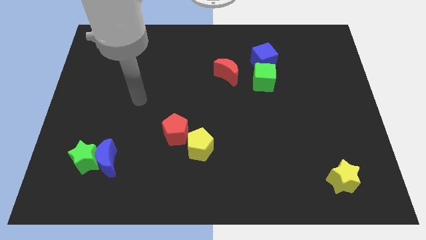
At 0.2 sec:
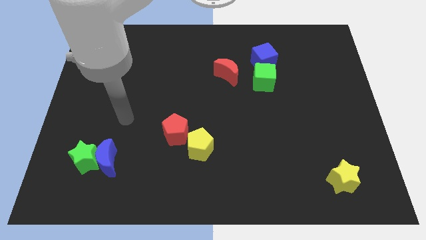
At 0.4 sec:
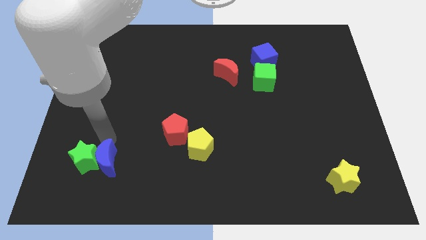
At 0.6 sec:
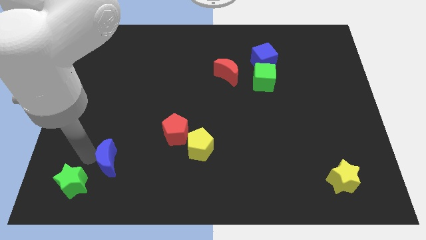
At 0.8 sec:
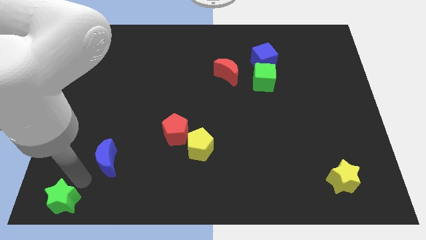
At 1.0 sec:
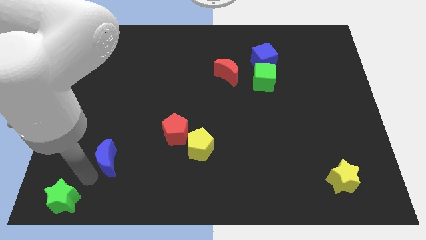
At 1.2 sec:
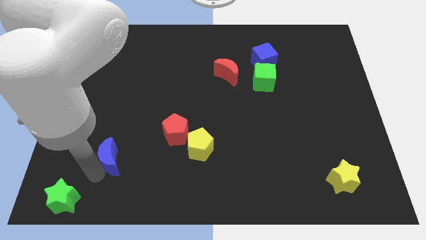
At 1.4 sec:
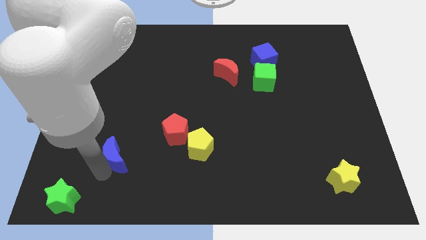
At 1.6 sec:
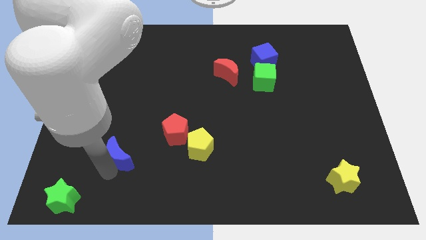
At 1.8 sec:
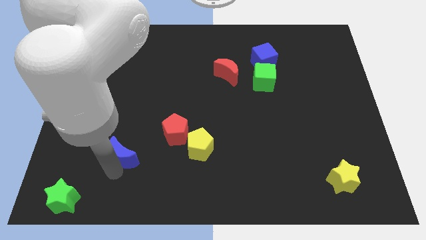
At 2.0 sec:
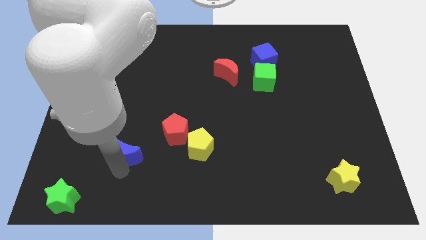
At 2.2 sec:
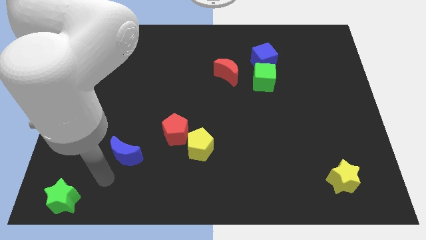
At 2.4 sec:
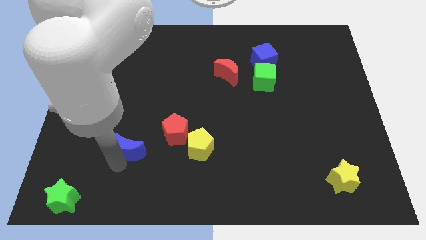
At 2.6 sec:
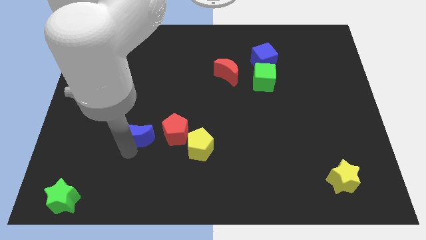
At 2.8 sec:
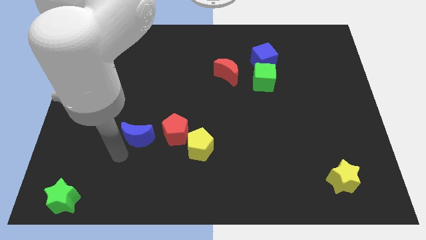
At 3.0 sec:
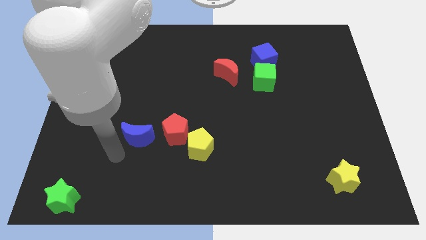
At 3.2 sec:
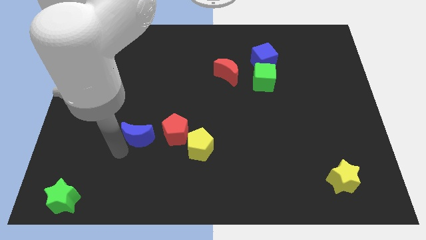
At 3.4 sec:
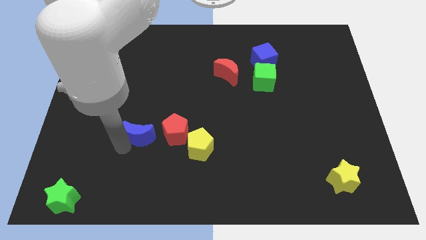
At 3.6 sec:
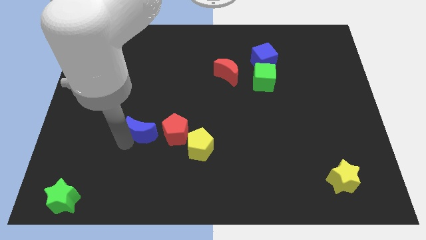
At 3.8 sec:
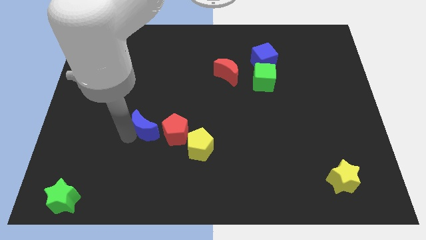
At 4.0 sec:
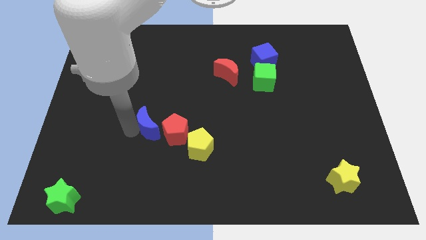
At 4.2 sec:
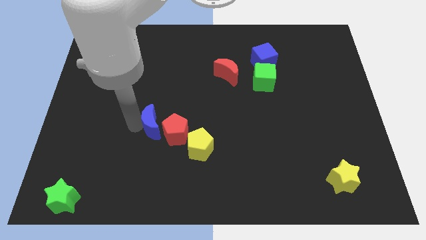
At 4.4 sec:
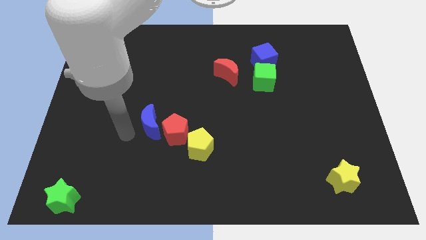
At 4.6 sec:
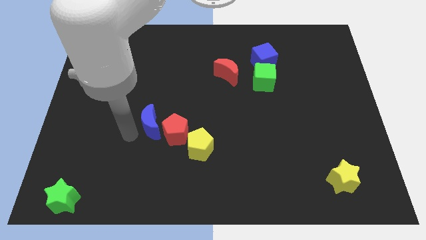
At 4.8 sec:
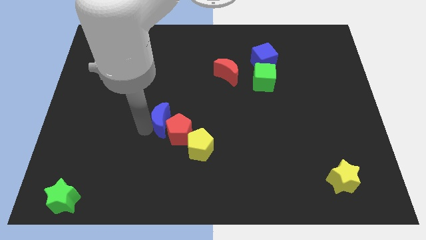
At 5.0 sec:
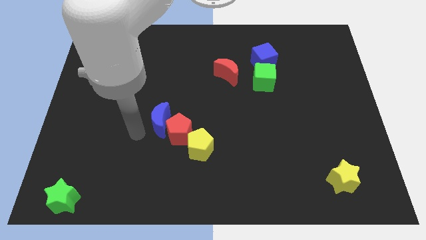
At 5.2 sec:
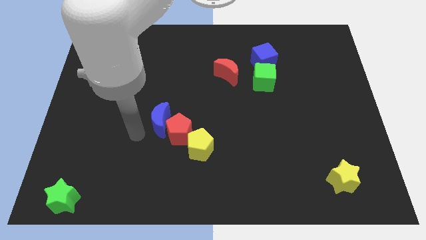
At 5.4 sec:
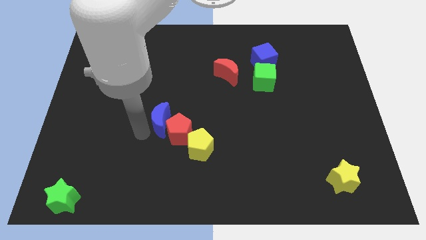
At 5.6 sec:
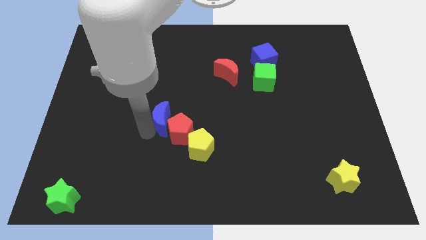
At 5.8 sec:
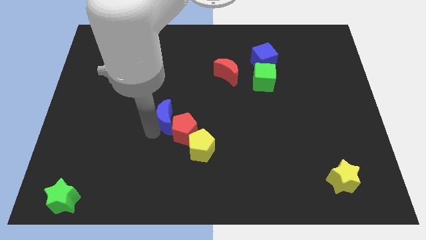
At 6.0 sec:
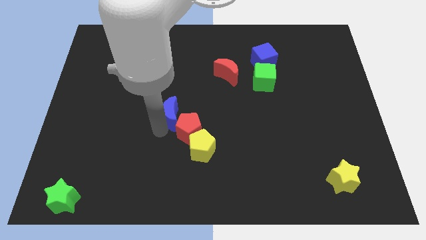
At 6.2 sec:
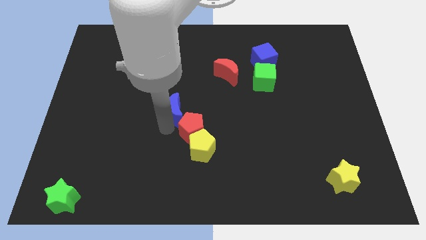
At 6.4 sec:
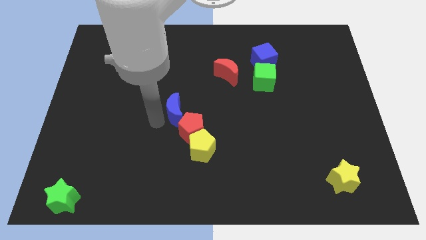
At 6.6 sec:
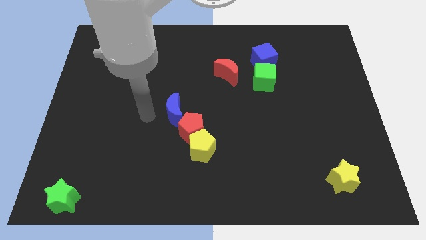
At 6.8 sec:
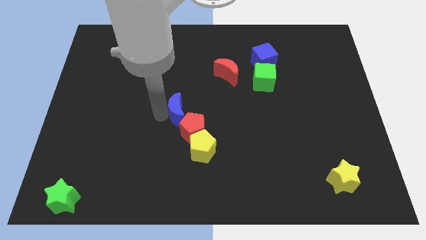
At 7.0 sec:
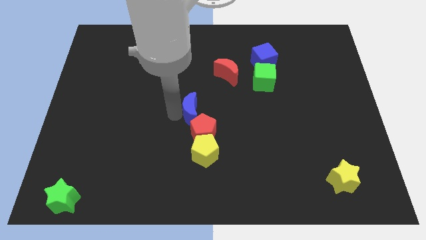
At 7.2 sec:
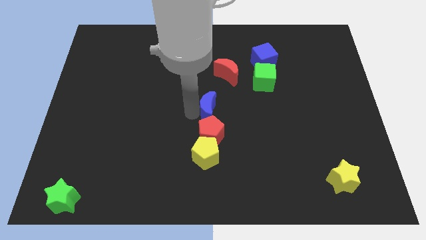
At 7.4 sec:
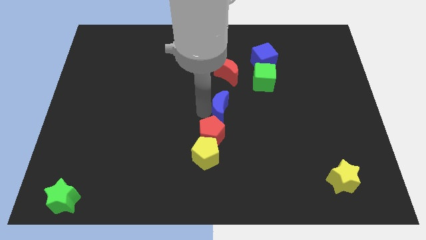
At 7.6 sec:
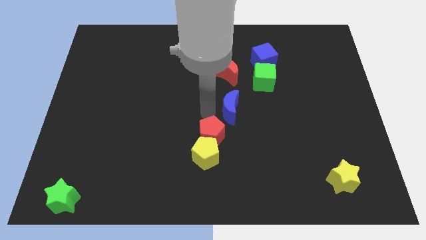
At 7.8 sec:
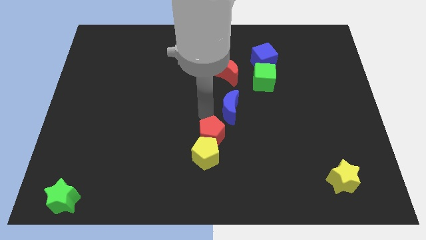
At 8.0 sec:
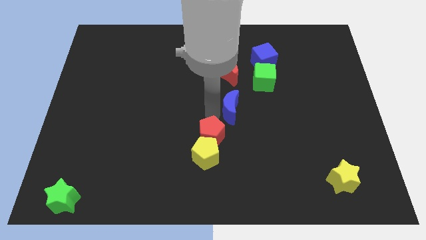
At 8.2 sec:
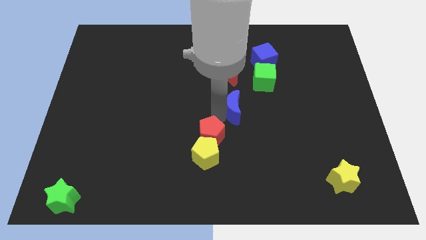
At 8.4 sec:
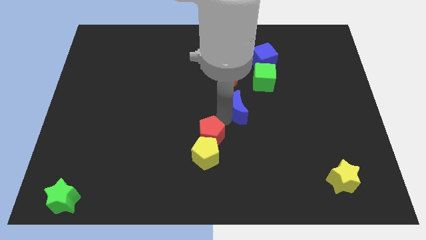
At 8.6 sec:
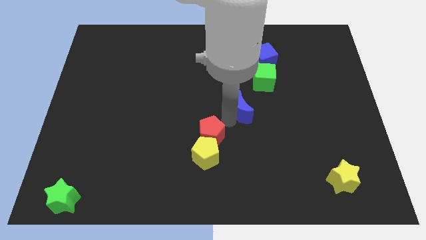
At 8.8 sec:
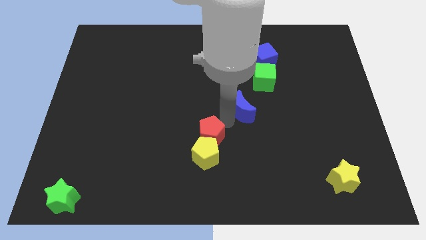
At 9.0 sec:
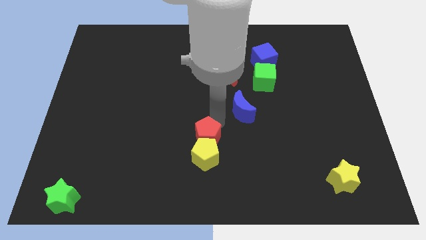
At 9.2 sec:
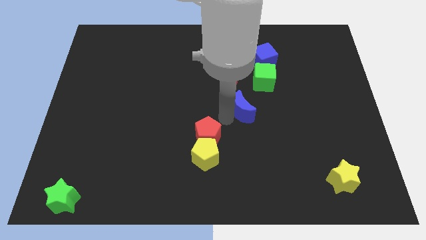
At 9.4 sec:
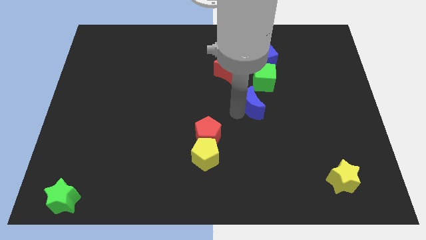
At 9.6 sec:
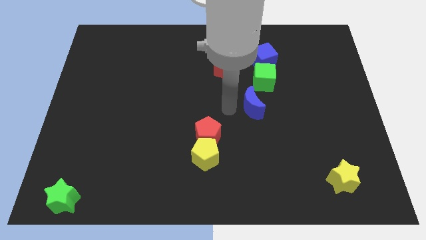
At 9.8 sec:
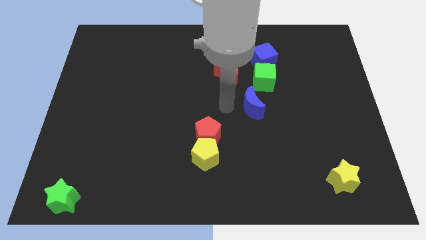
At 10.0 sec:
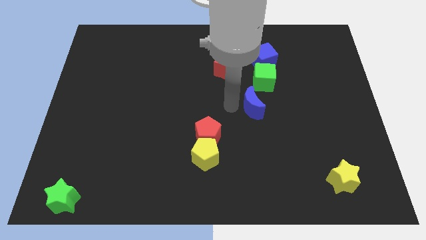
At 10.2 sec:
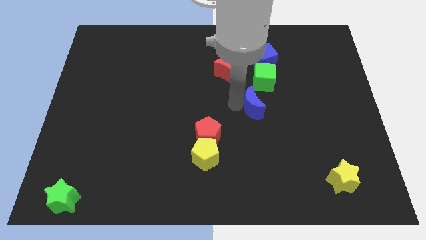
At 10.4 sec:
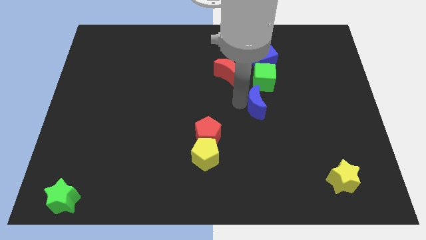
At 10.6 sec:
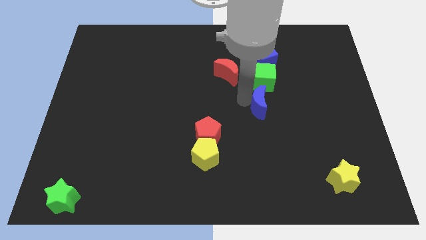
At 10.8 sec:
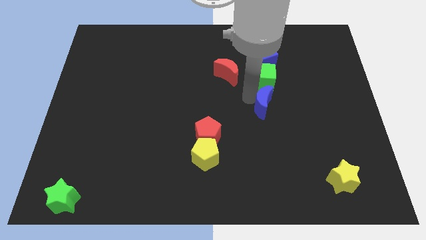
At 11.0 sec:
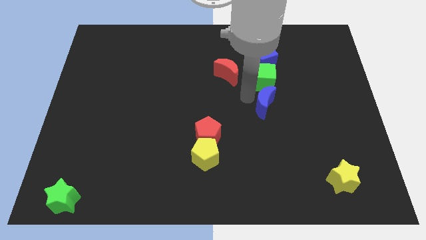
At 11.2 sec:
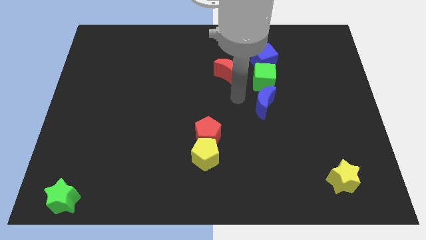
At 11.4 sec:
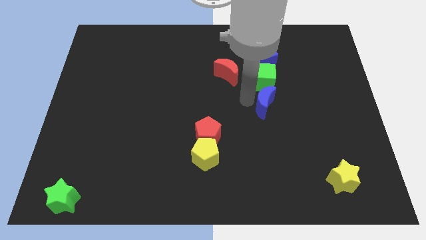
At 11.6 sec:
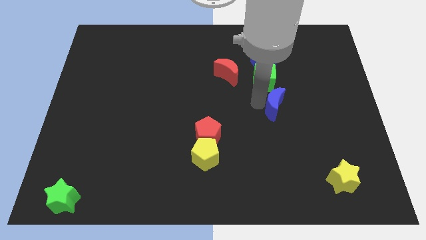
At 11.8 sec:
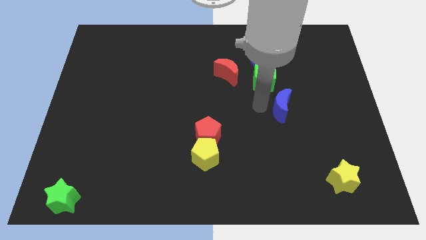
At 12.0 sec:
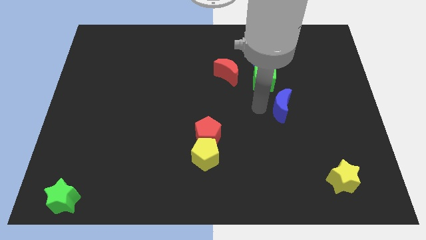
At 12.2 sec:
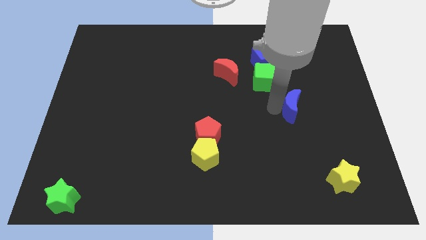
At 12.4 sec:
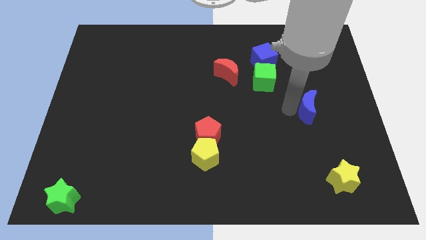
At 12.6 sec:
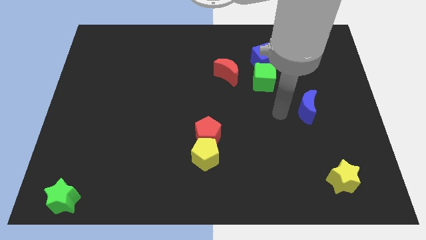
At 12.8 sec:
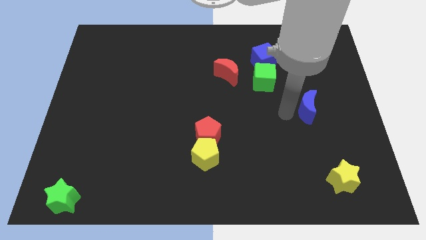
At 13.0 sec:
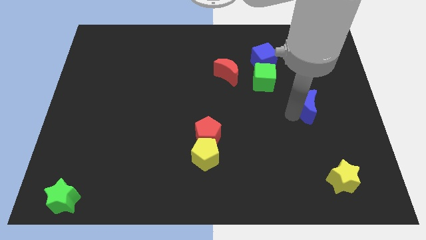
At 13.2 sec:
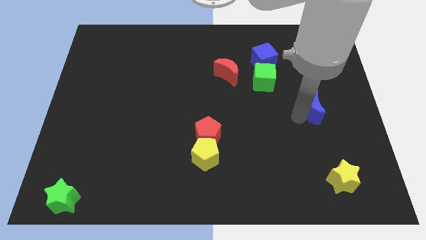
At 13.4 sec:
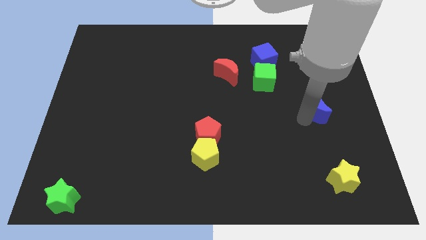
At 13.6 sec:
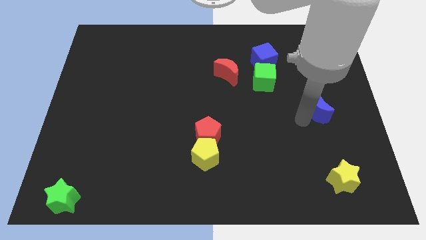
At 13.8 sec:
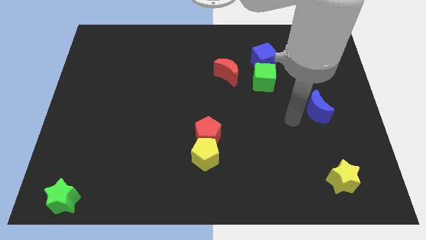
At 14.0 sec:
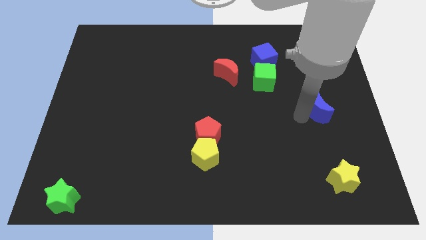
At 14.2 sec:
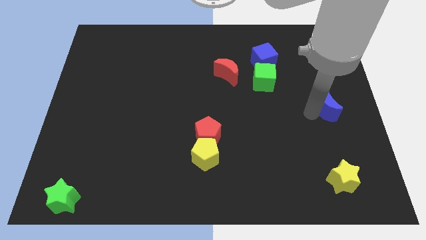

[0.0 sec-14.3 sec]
push the blue moon to the right side
